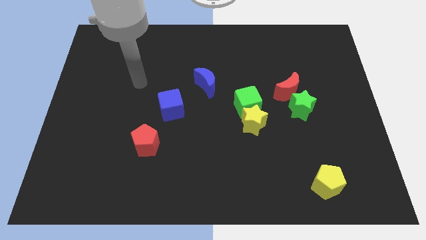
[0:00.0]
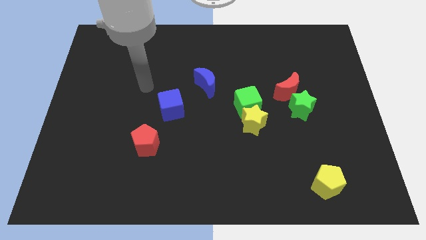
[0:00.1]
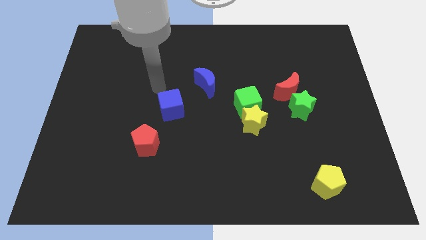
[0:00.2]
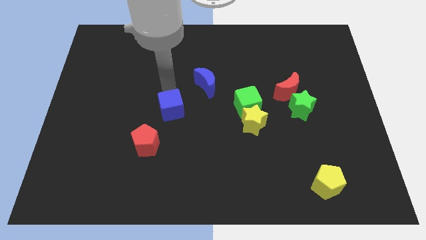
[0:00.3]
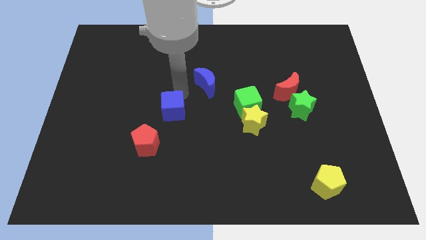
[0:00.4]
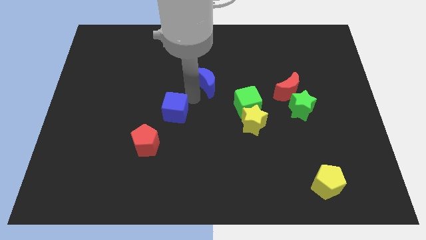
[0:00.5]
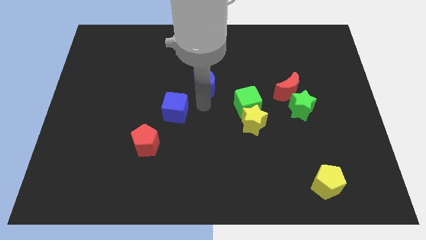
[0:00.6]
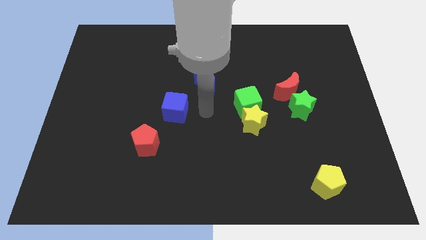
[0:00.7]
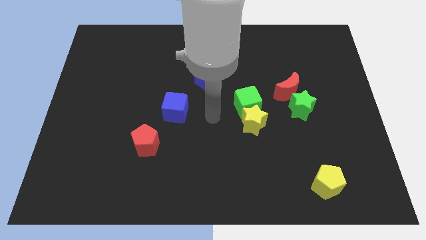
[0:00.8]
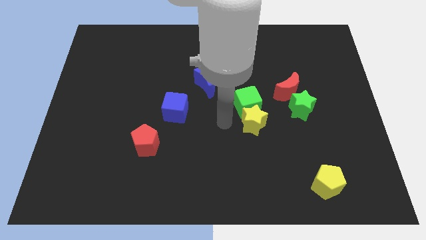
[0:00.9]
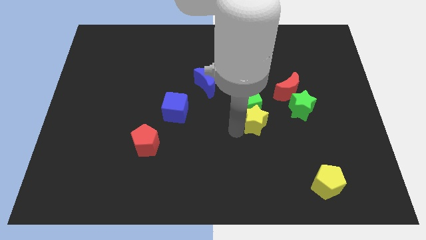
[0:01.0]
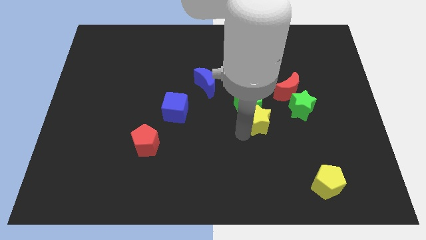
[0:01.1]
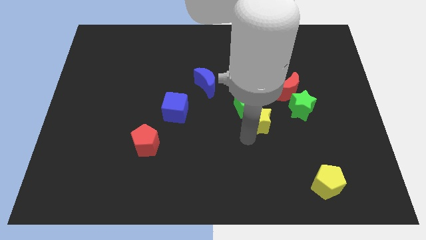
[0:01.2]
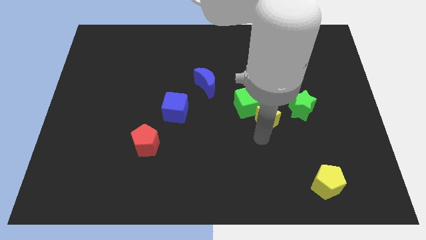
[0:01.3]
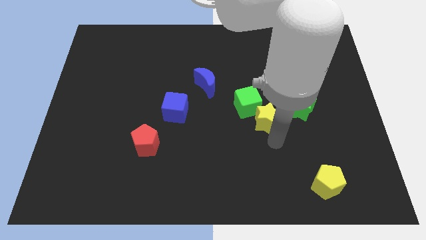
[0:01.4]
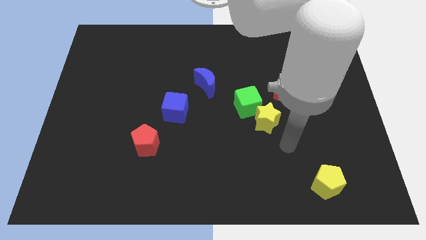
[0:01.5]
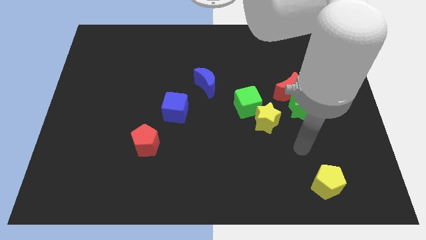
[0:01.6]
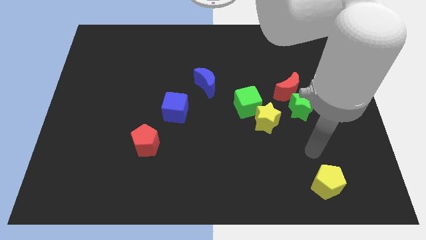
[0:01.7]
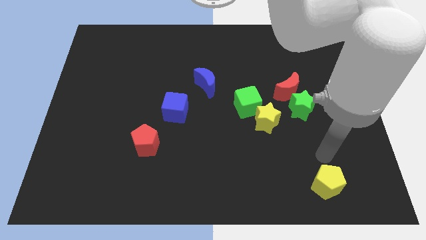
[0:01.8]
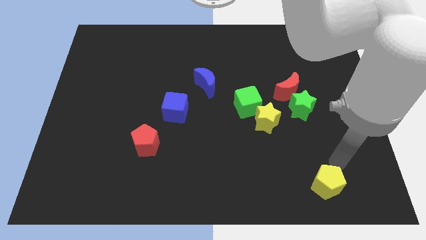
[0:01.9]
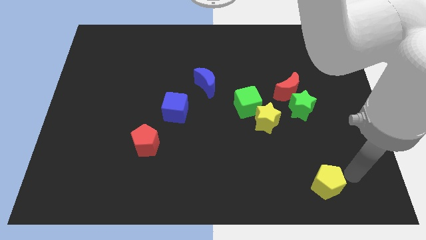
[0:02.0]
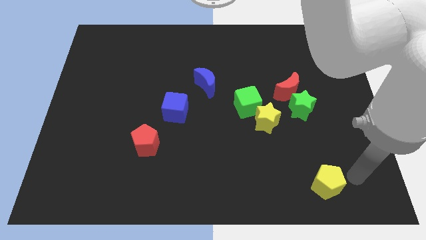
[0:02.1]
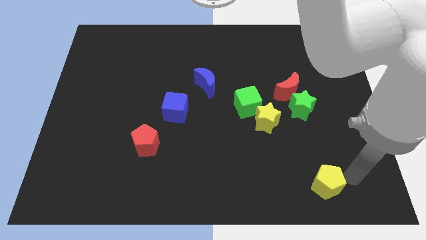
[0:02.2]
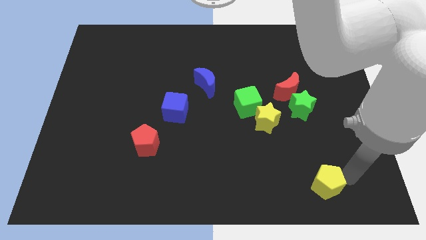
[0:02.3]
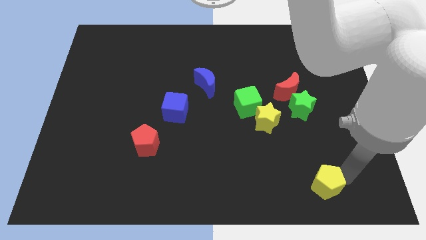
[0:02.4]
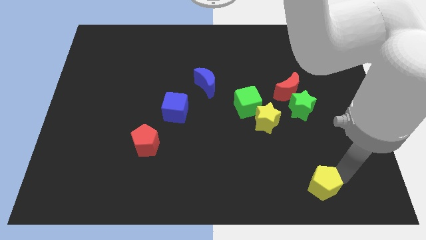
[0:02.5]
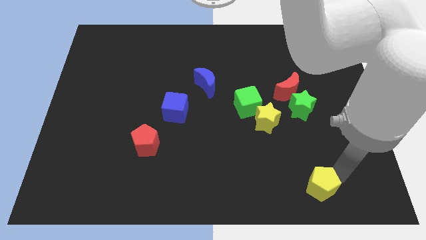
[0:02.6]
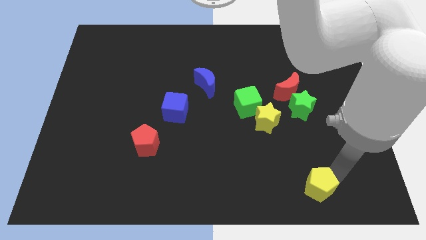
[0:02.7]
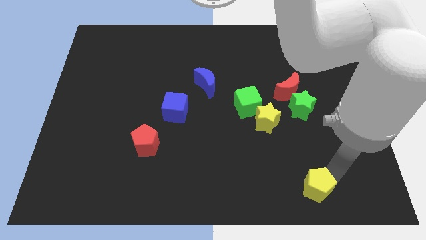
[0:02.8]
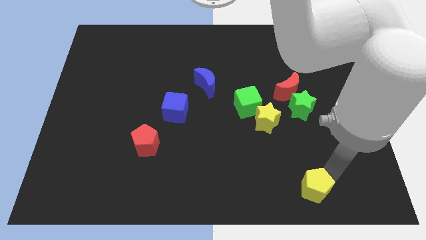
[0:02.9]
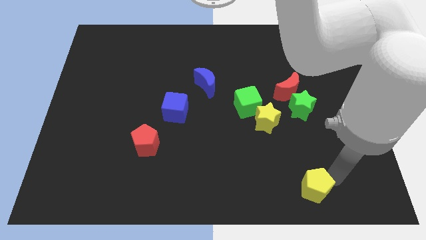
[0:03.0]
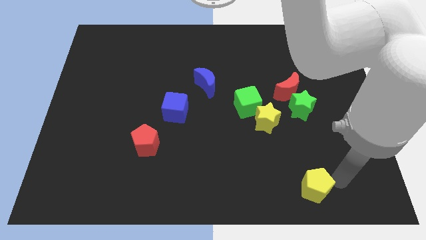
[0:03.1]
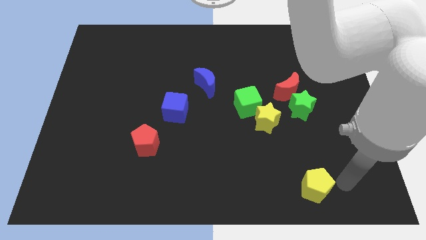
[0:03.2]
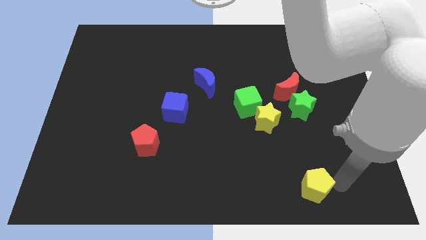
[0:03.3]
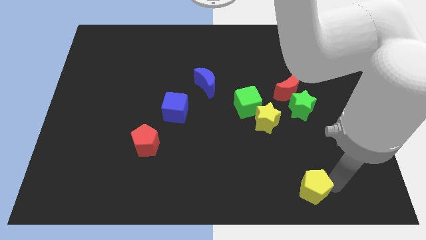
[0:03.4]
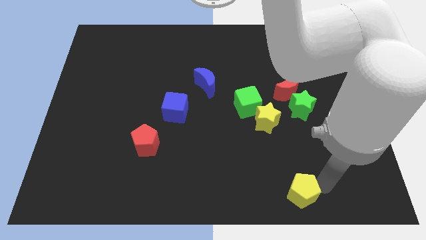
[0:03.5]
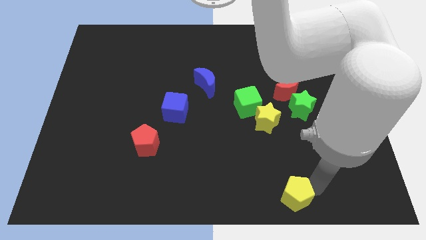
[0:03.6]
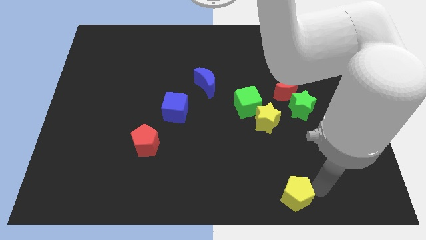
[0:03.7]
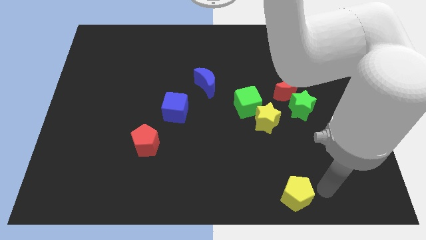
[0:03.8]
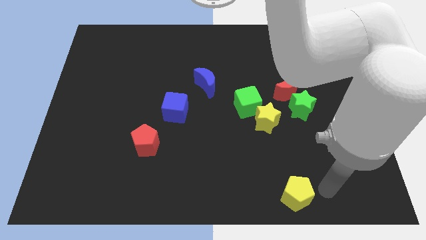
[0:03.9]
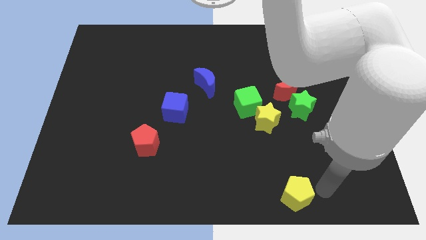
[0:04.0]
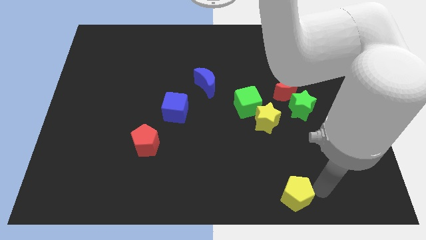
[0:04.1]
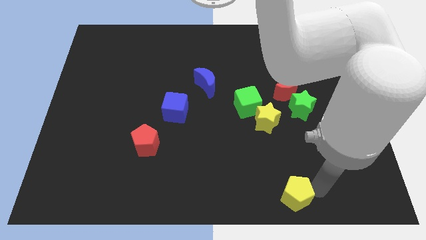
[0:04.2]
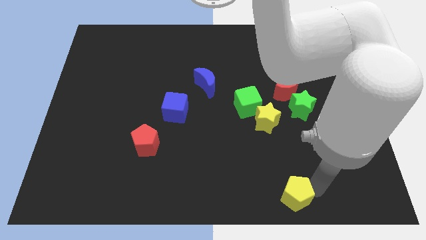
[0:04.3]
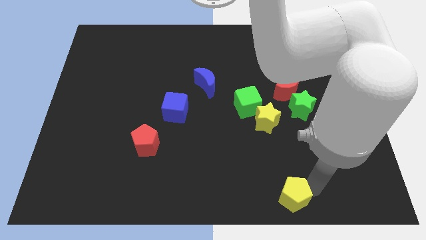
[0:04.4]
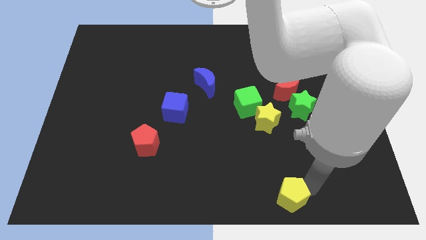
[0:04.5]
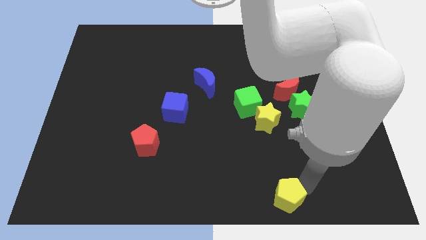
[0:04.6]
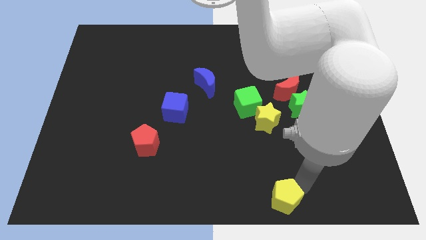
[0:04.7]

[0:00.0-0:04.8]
push the yellow pentagon to the bottom

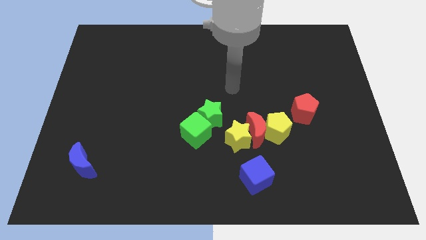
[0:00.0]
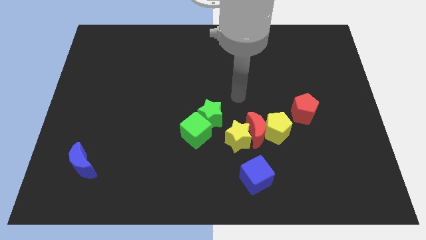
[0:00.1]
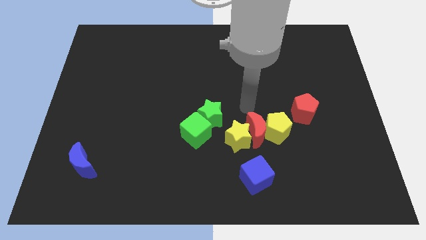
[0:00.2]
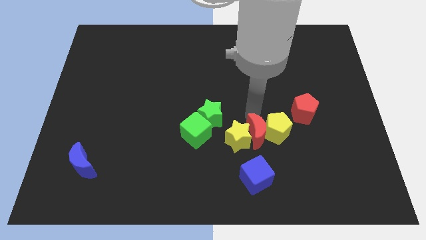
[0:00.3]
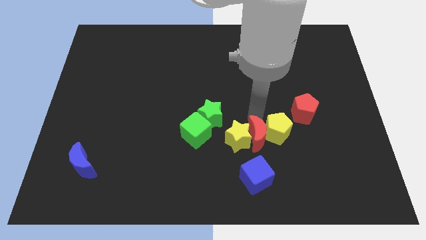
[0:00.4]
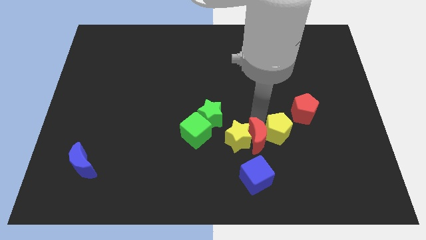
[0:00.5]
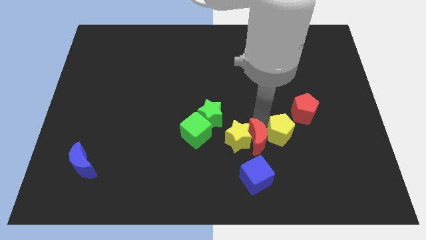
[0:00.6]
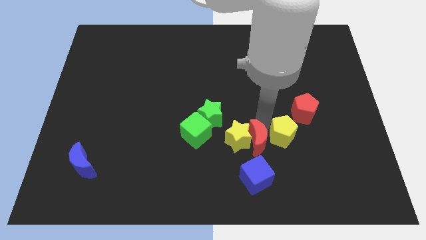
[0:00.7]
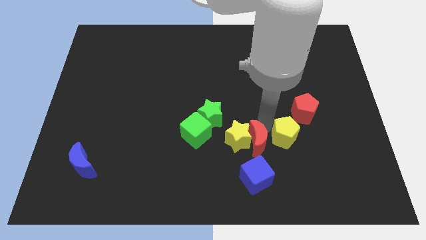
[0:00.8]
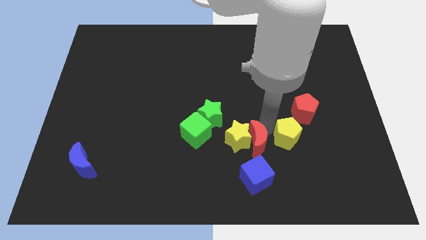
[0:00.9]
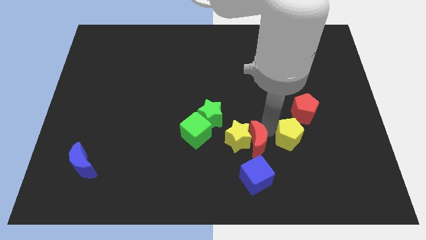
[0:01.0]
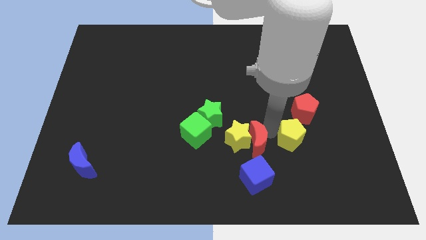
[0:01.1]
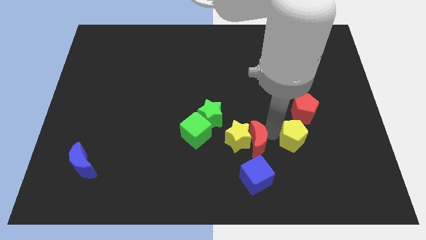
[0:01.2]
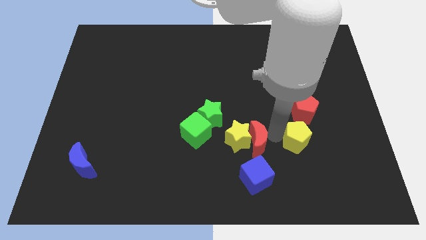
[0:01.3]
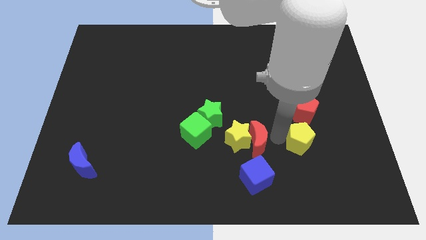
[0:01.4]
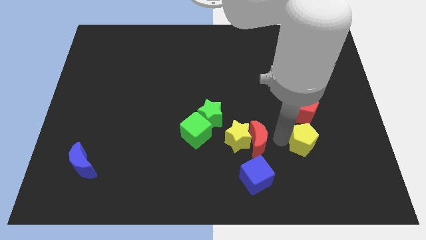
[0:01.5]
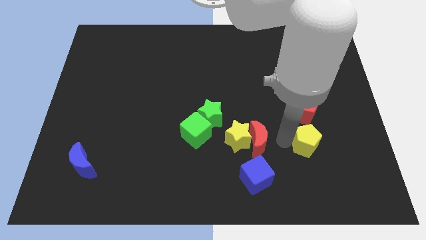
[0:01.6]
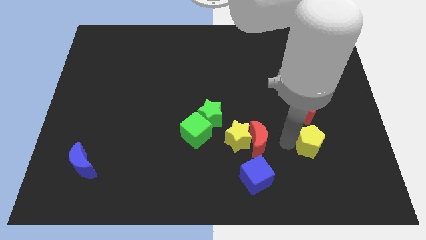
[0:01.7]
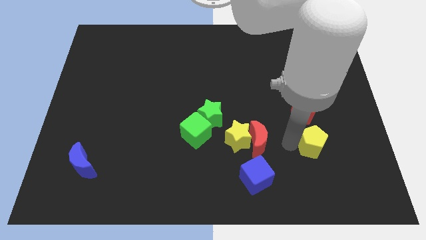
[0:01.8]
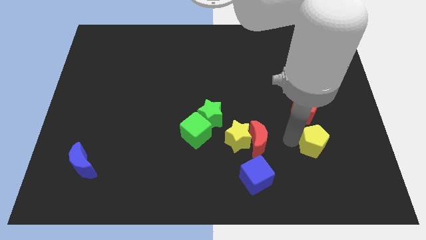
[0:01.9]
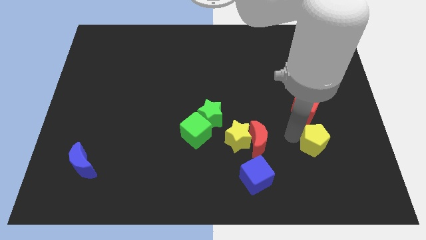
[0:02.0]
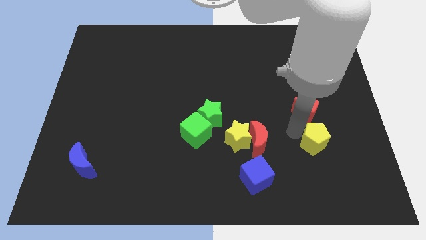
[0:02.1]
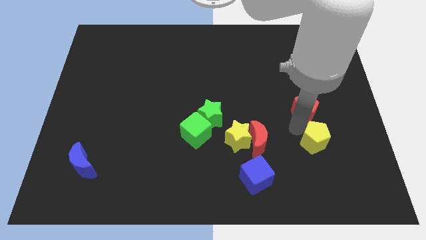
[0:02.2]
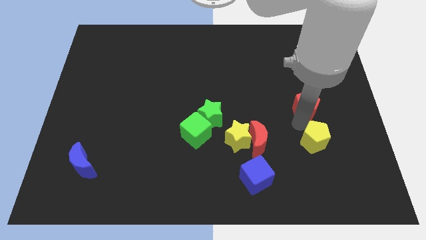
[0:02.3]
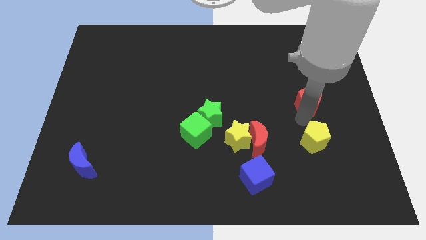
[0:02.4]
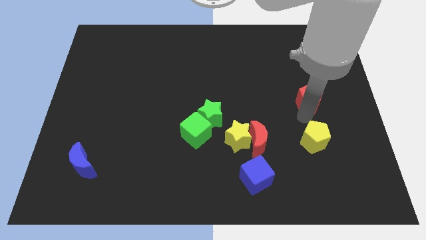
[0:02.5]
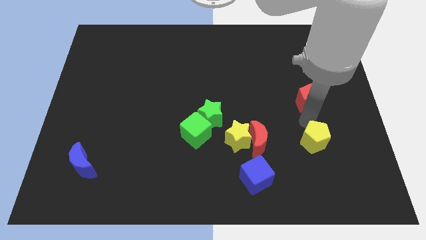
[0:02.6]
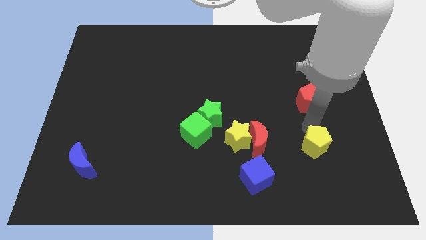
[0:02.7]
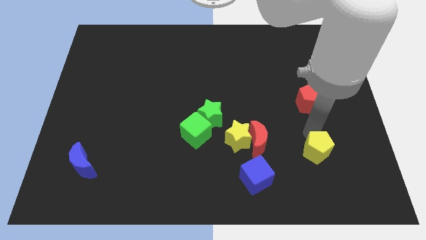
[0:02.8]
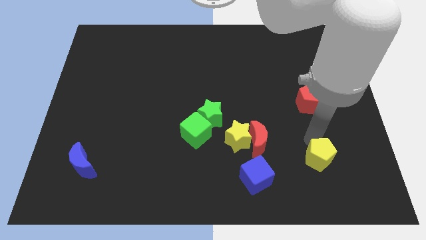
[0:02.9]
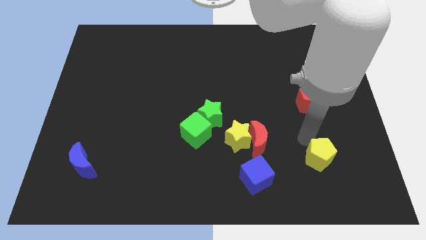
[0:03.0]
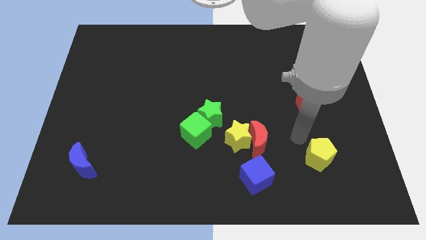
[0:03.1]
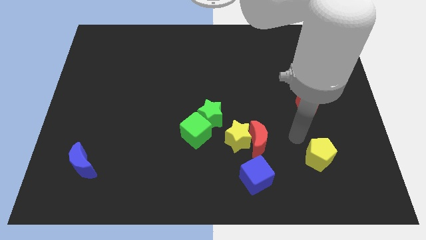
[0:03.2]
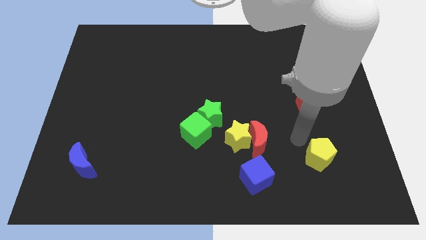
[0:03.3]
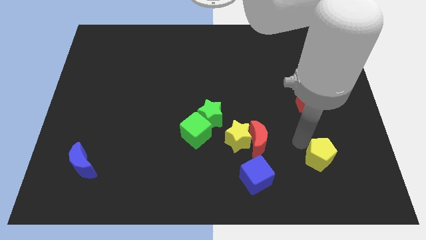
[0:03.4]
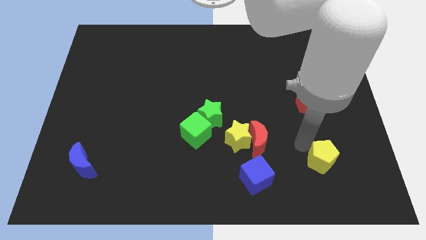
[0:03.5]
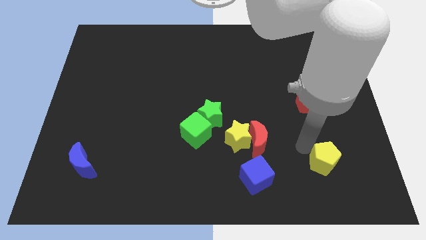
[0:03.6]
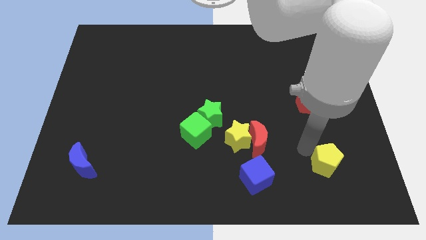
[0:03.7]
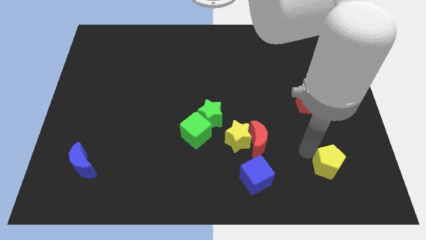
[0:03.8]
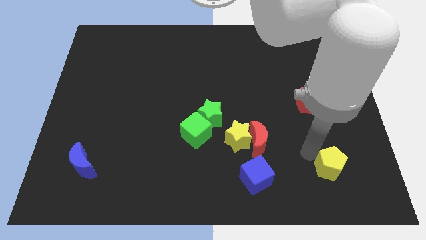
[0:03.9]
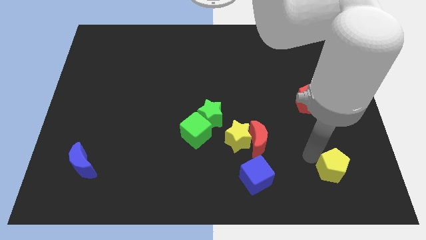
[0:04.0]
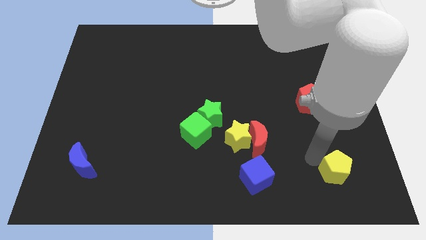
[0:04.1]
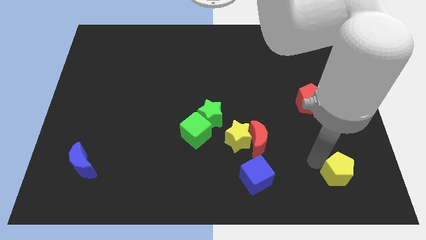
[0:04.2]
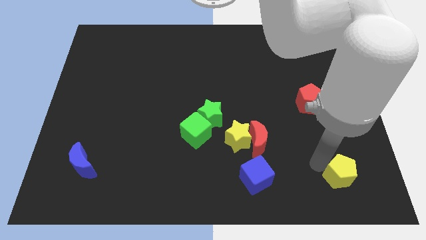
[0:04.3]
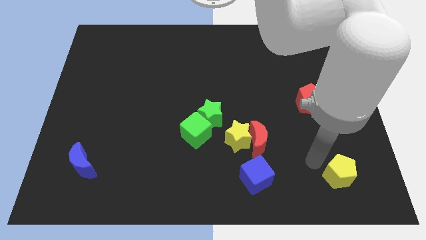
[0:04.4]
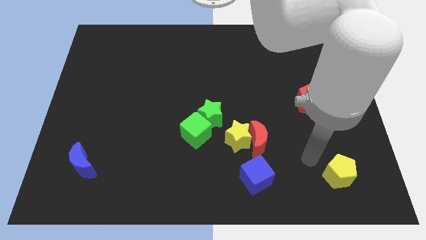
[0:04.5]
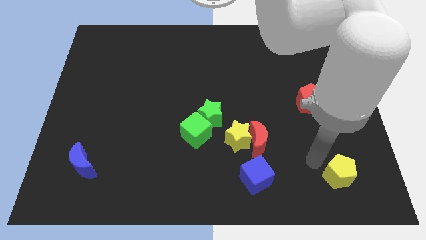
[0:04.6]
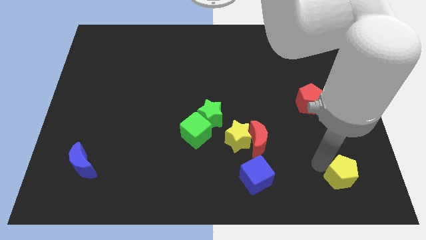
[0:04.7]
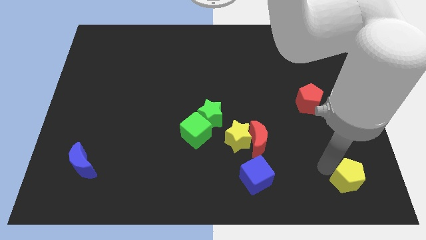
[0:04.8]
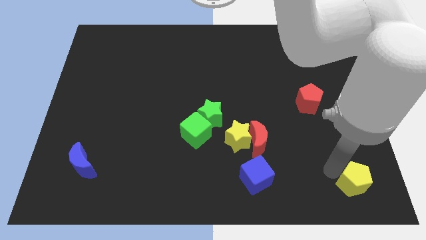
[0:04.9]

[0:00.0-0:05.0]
slide the yellow pentagon to the lower right corner
